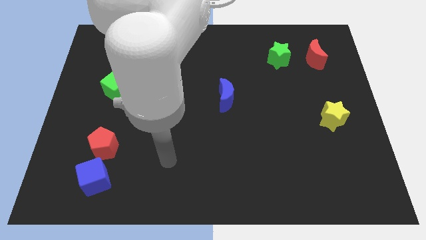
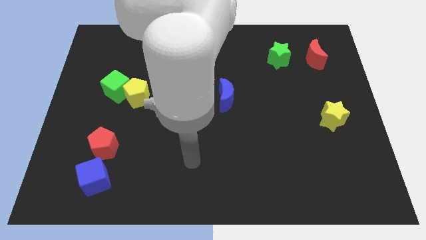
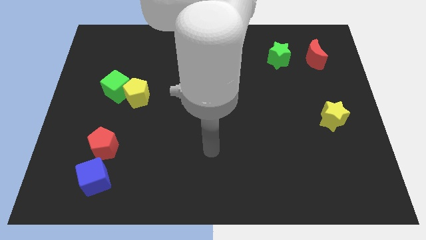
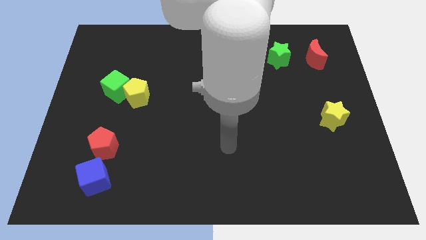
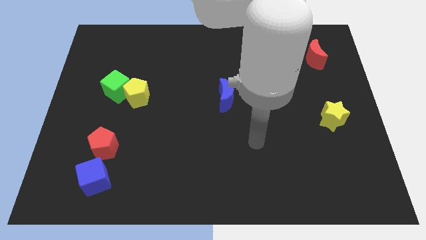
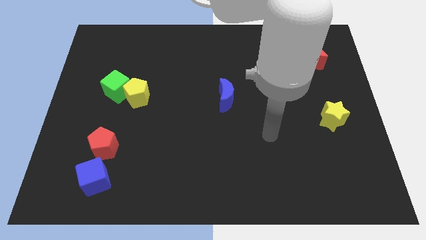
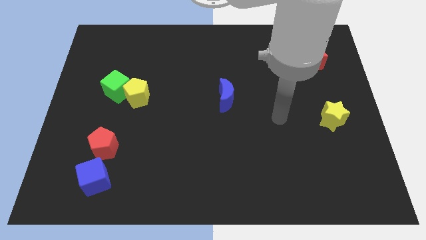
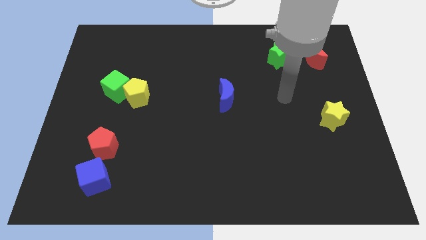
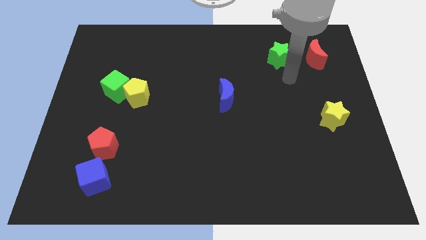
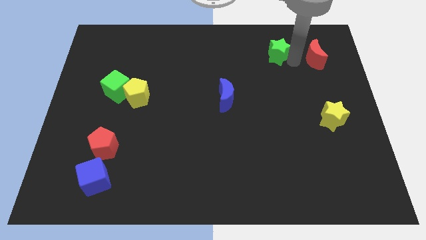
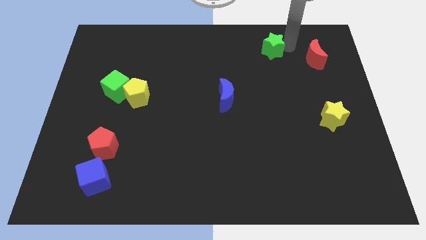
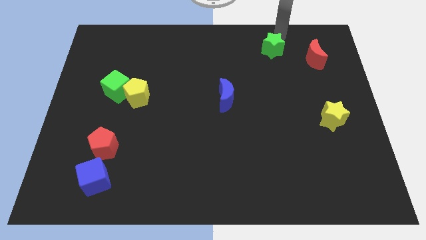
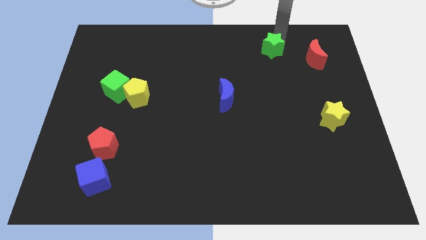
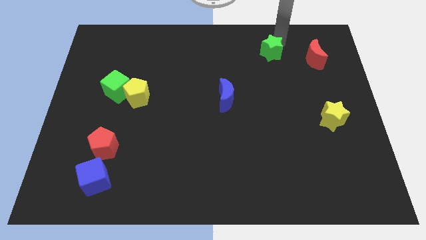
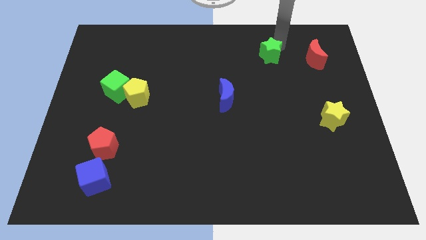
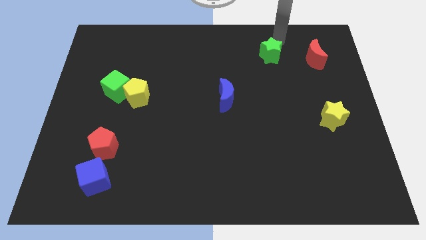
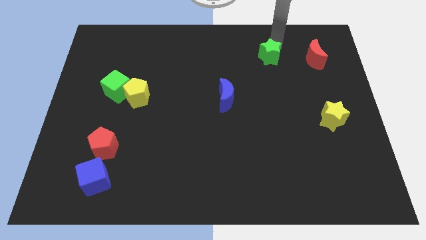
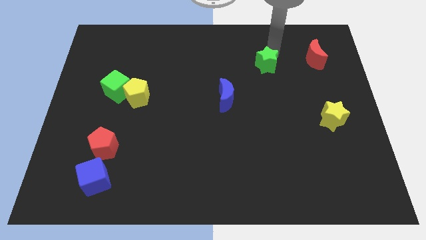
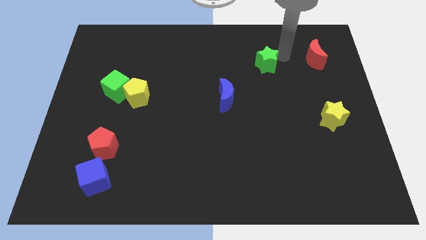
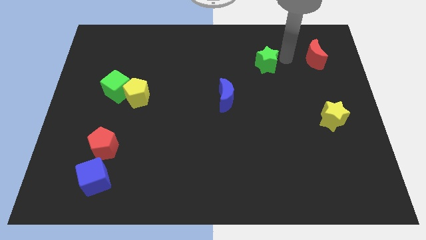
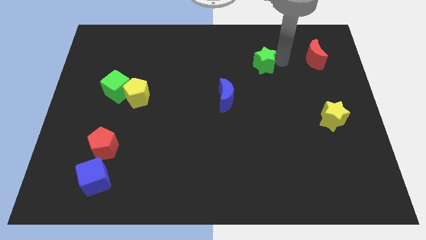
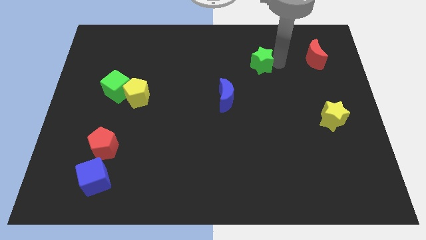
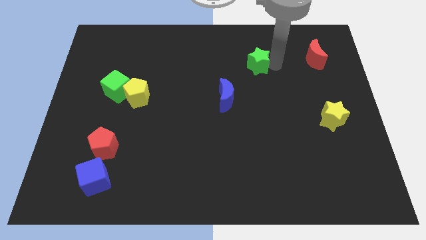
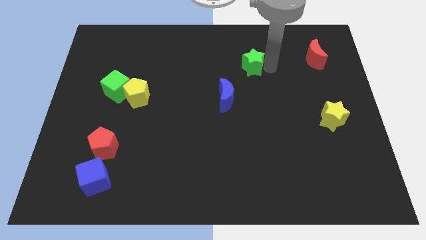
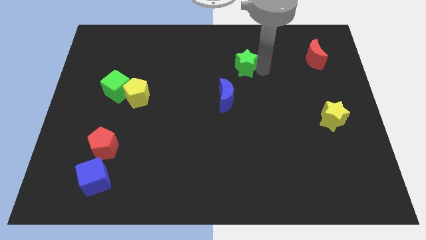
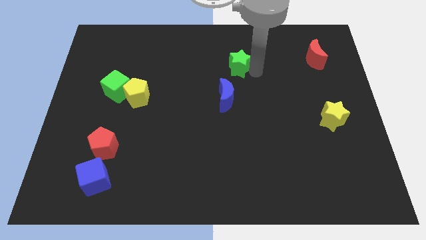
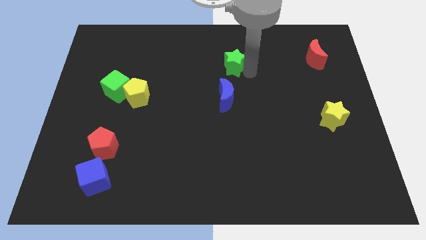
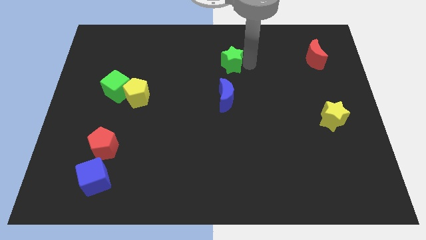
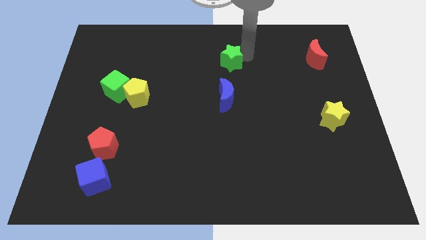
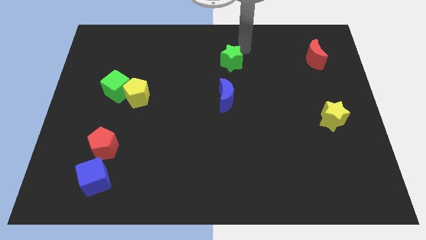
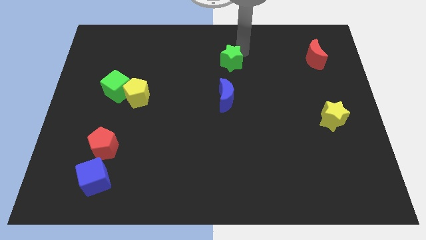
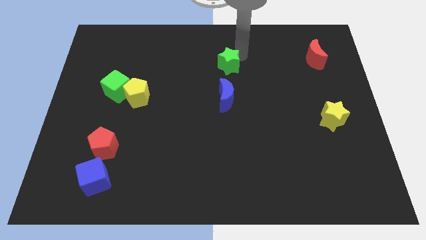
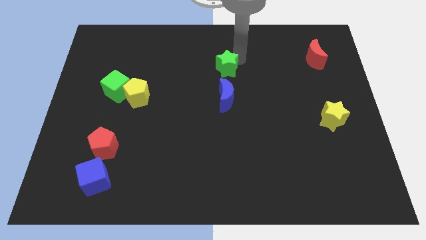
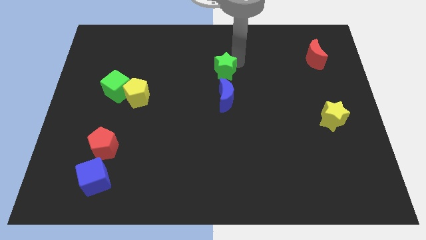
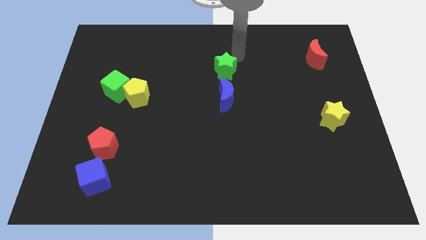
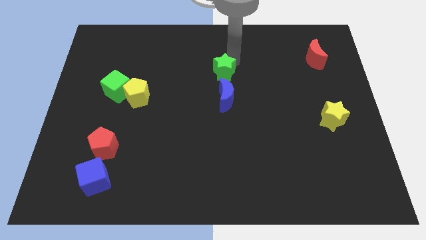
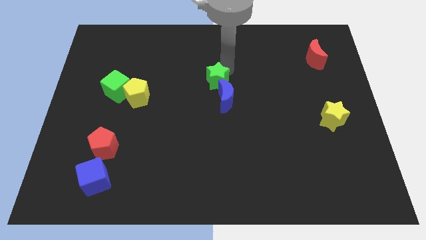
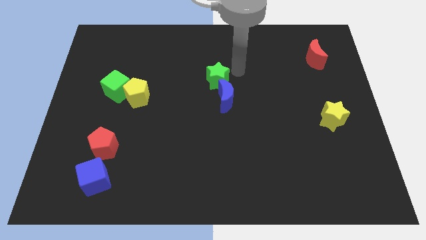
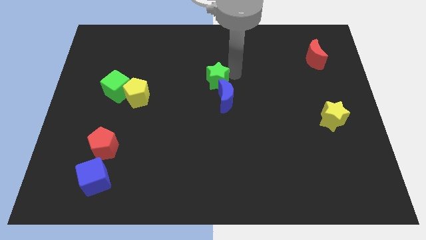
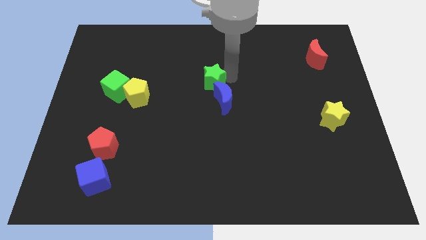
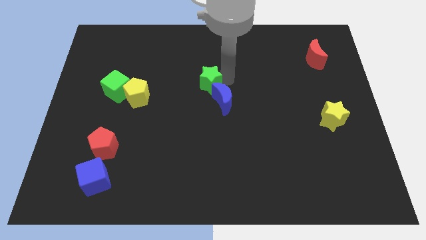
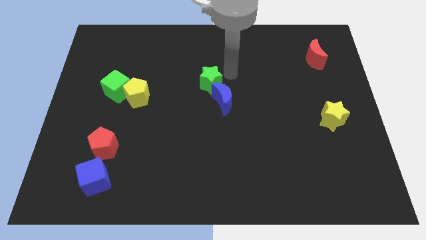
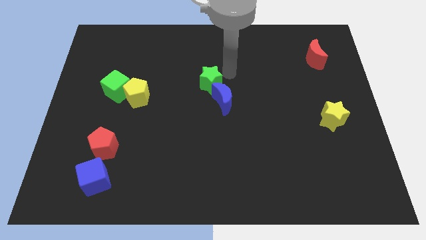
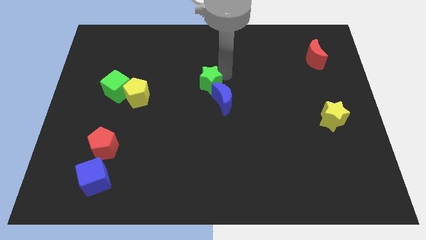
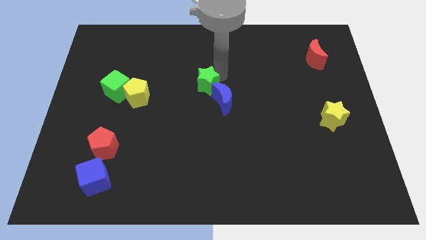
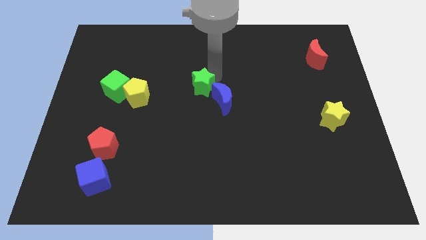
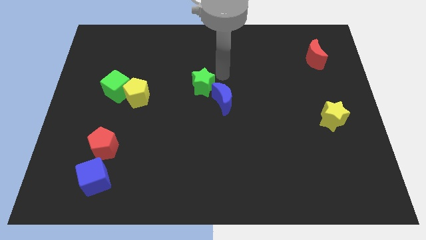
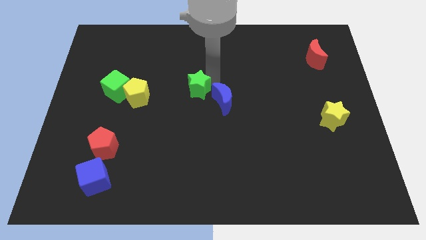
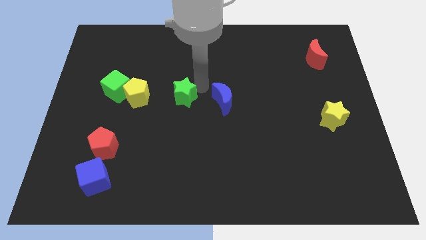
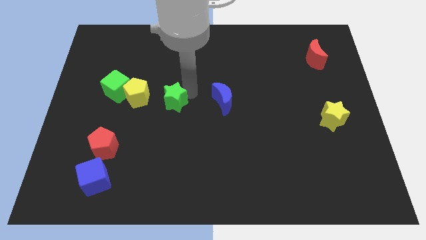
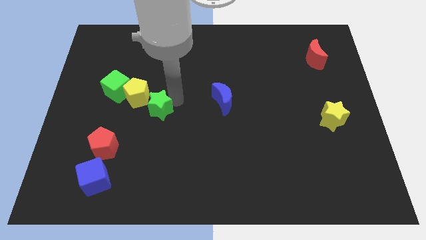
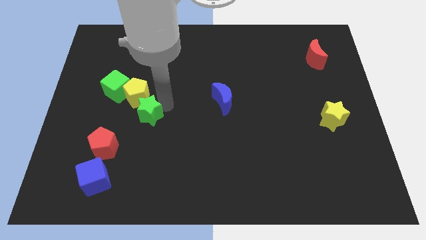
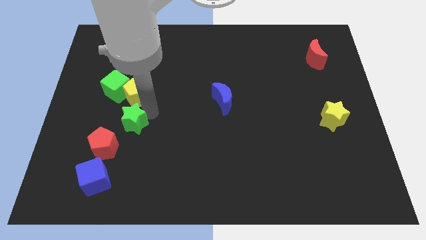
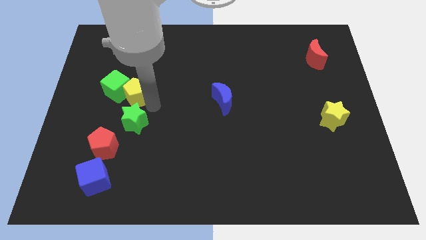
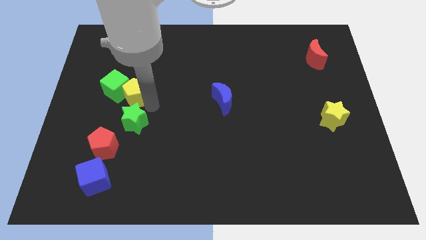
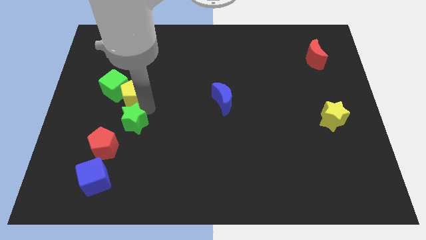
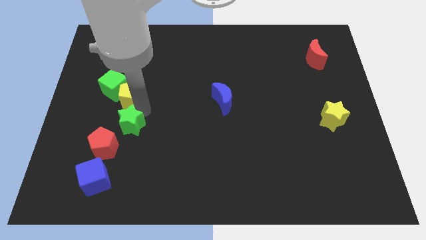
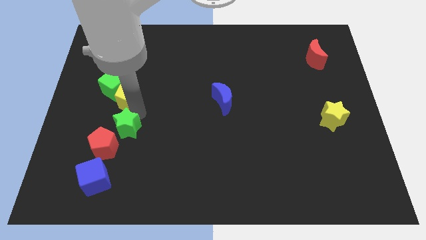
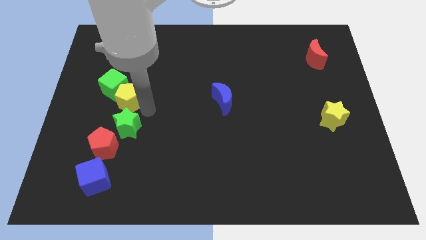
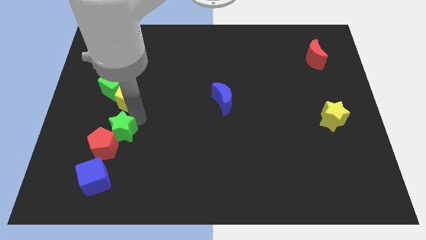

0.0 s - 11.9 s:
slide the green star close to the red pentagon

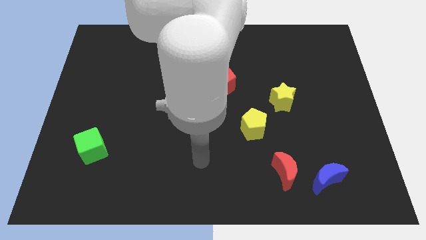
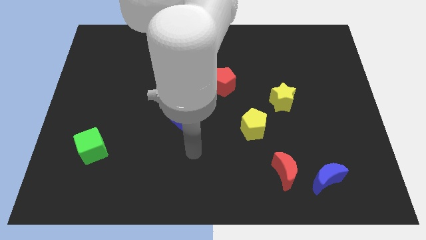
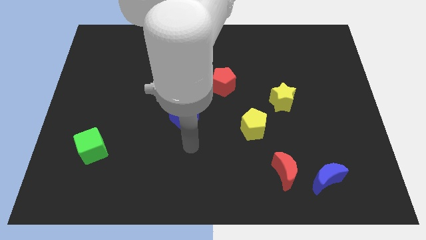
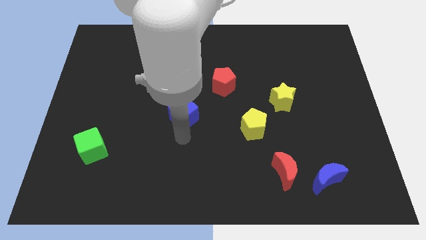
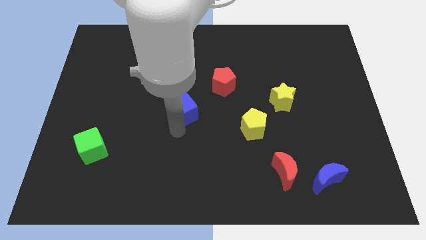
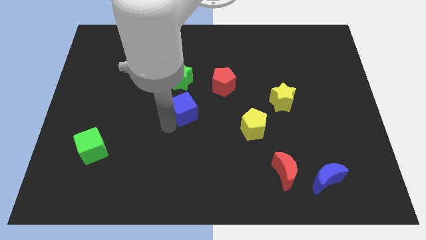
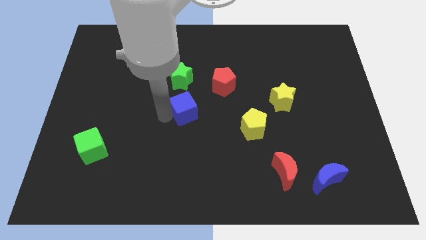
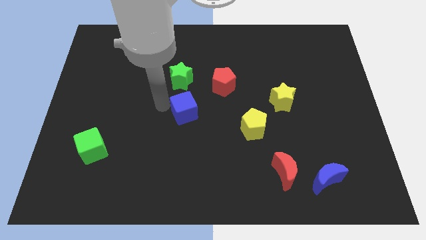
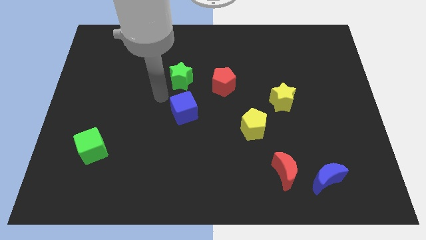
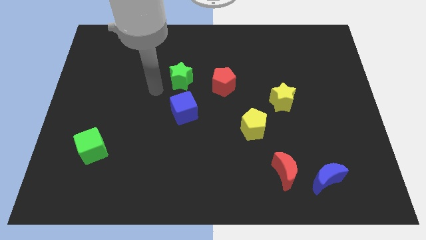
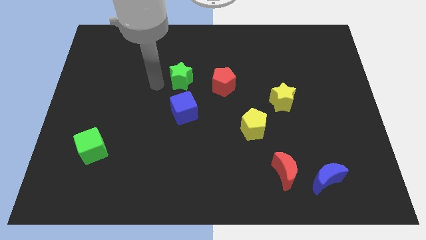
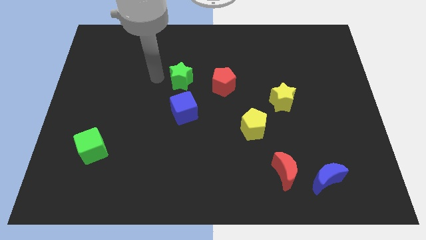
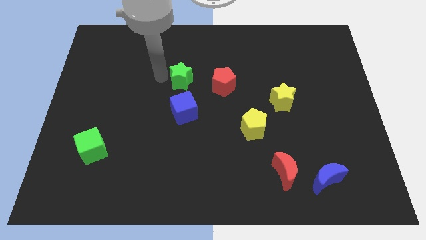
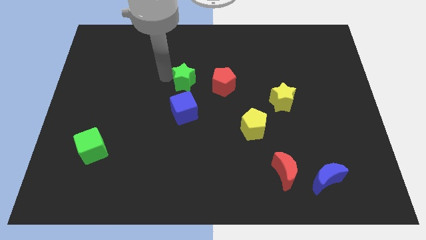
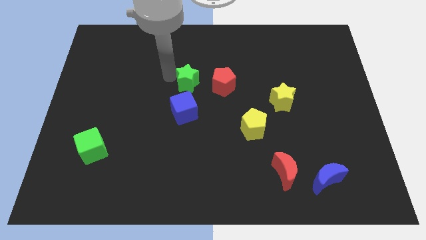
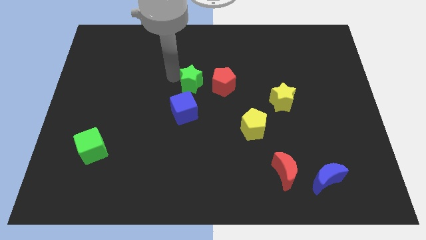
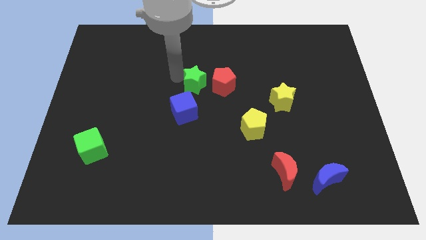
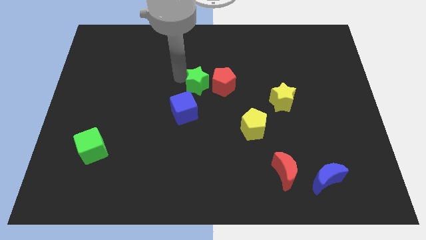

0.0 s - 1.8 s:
push the green star next to the red pentagon
